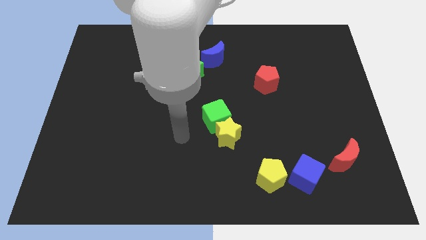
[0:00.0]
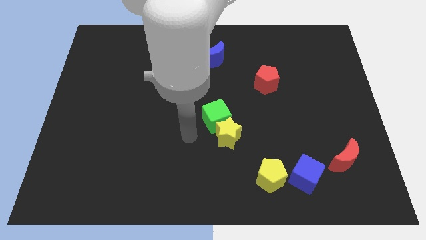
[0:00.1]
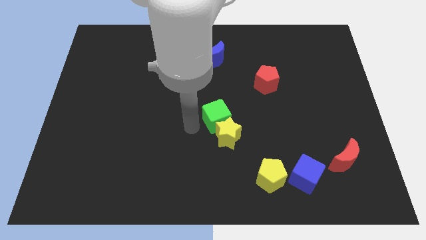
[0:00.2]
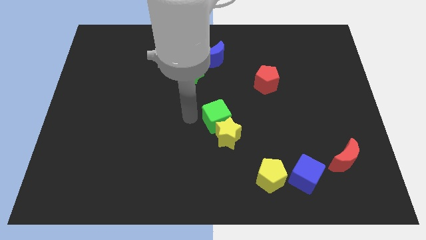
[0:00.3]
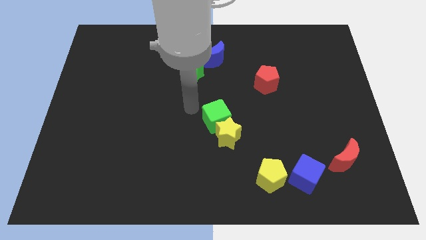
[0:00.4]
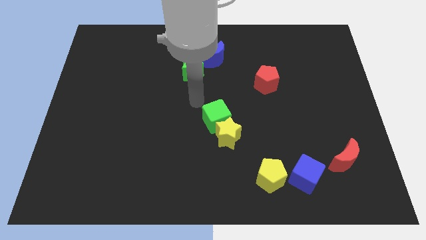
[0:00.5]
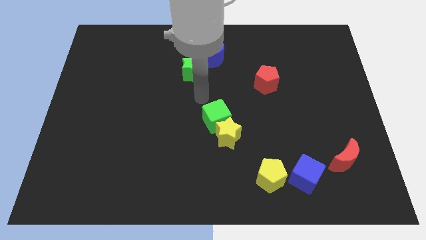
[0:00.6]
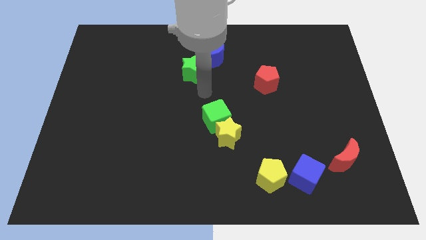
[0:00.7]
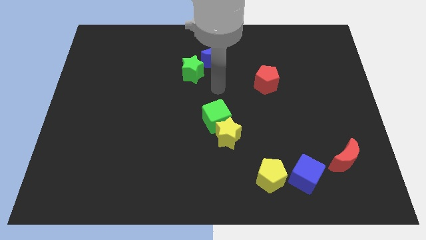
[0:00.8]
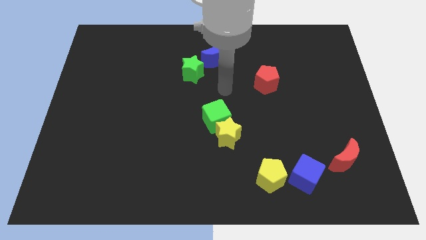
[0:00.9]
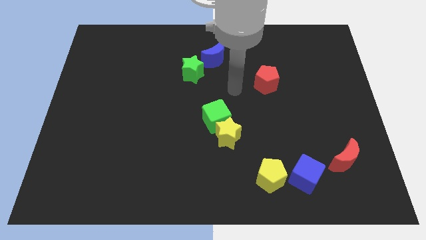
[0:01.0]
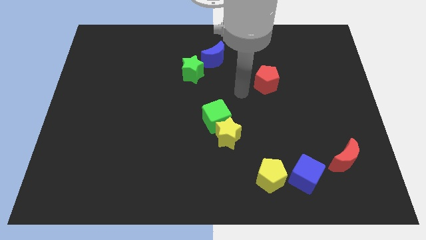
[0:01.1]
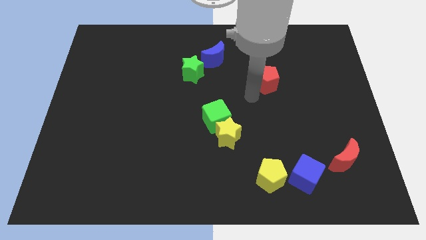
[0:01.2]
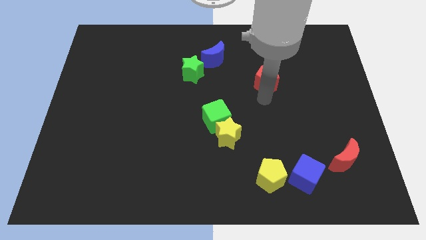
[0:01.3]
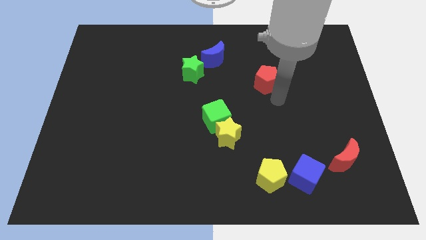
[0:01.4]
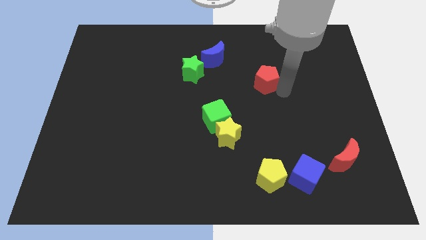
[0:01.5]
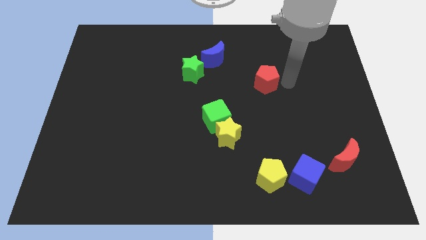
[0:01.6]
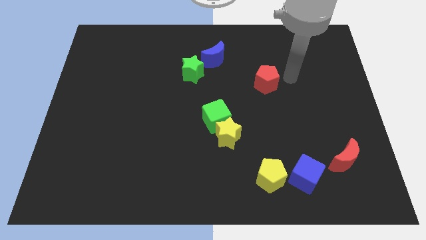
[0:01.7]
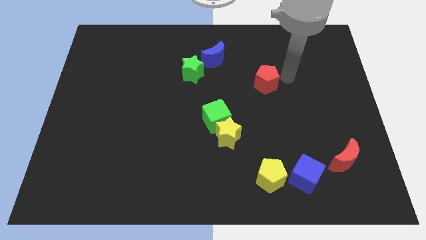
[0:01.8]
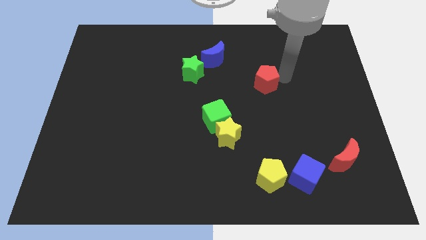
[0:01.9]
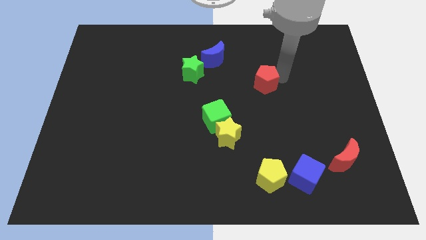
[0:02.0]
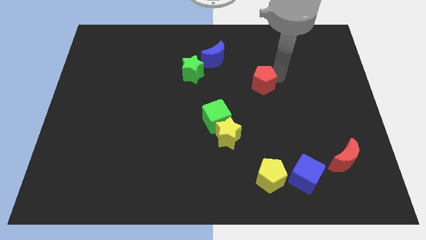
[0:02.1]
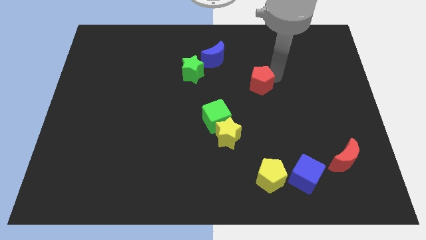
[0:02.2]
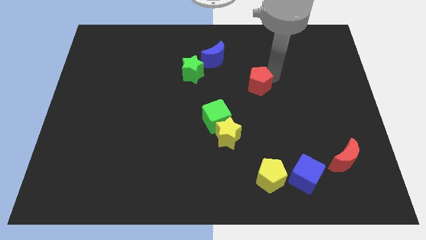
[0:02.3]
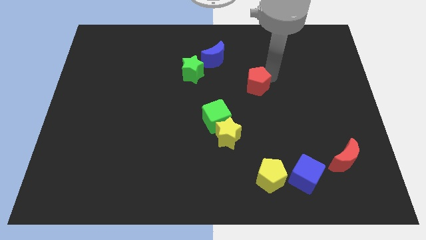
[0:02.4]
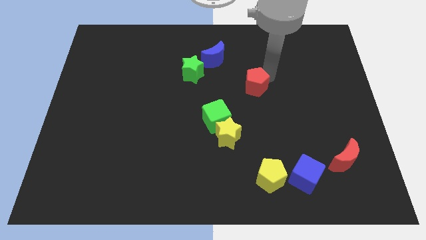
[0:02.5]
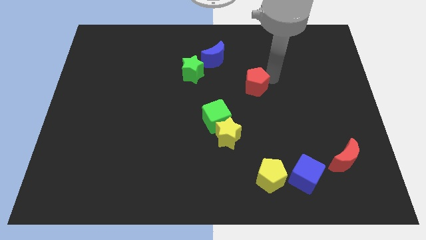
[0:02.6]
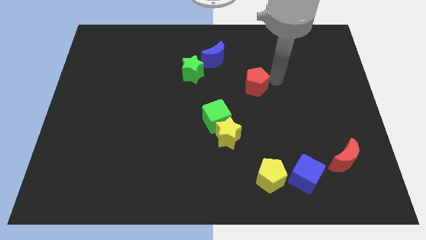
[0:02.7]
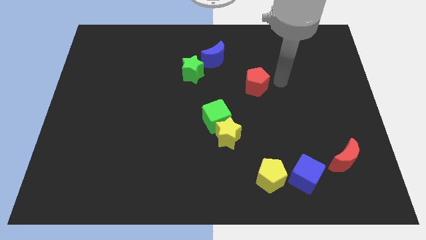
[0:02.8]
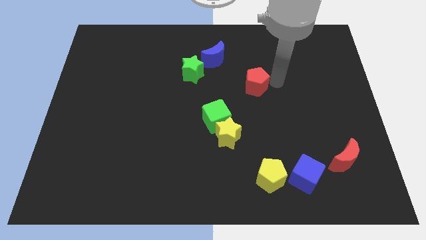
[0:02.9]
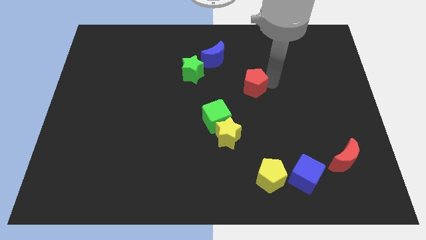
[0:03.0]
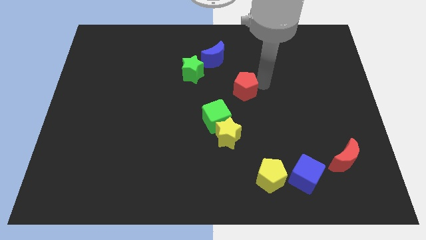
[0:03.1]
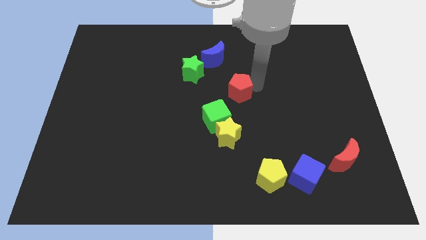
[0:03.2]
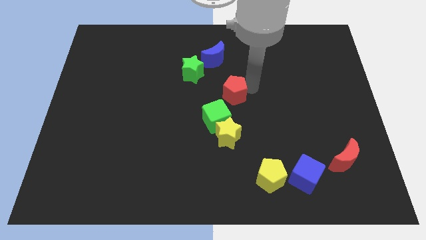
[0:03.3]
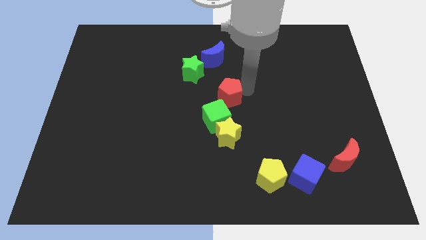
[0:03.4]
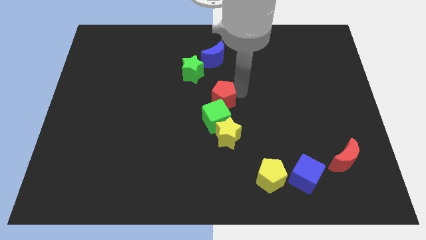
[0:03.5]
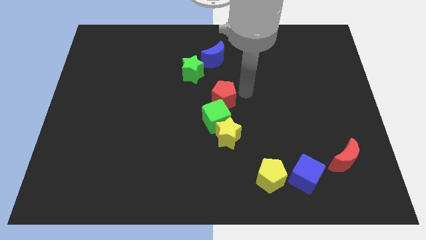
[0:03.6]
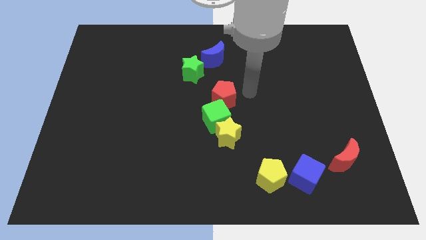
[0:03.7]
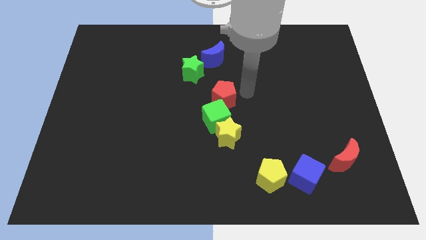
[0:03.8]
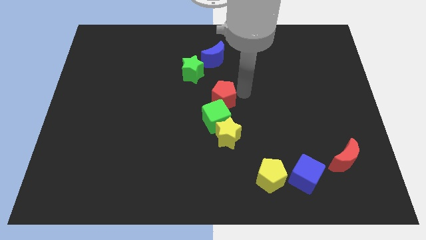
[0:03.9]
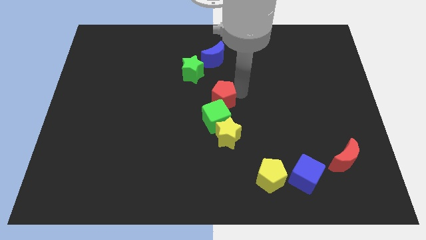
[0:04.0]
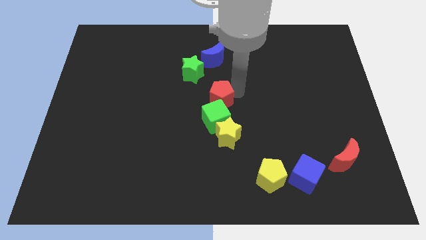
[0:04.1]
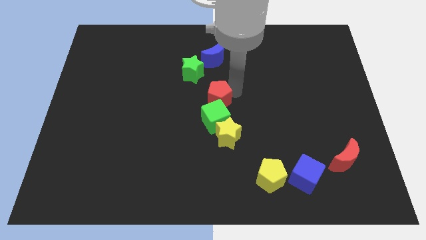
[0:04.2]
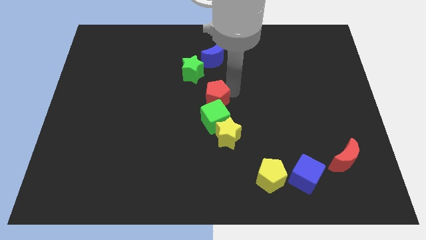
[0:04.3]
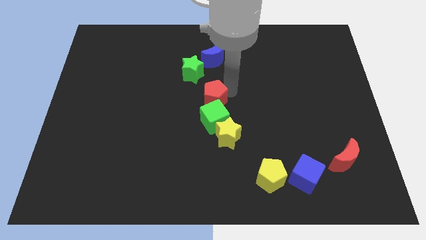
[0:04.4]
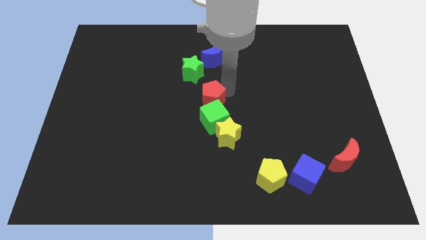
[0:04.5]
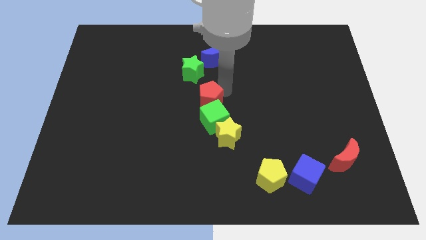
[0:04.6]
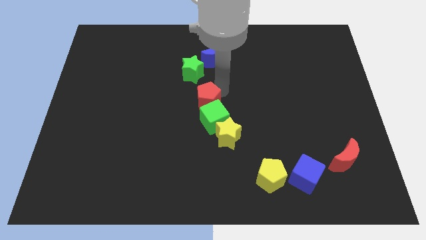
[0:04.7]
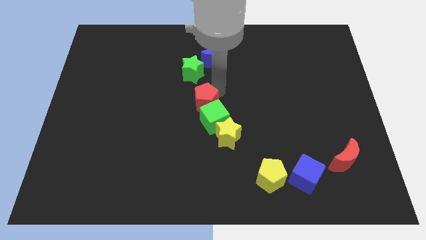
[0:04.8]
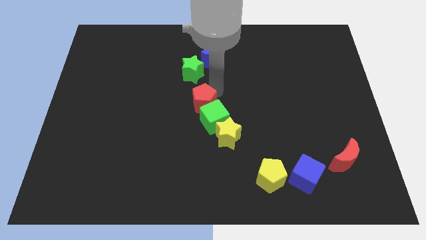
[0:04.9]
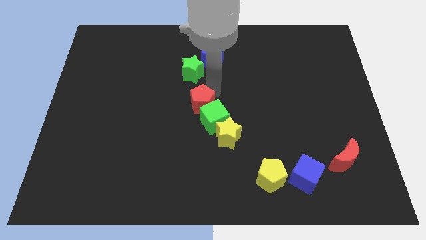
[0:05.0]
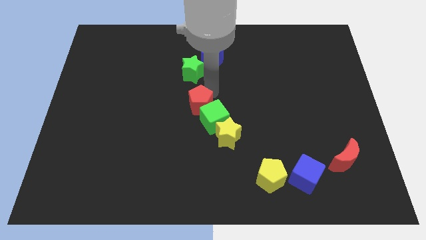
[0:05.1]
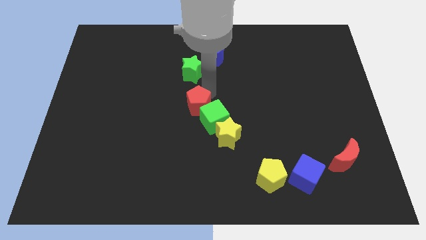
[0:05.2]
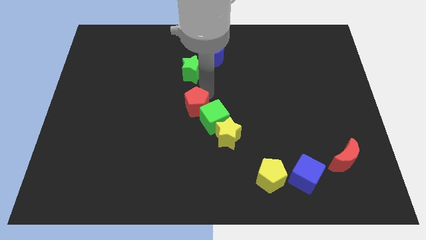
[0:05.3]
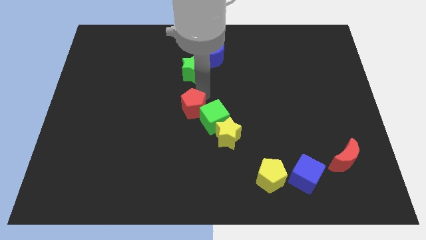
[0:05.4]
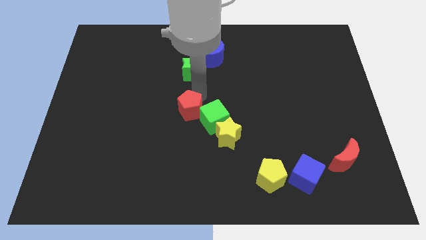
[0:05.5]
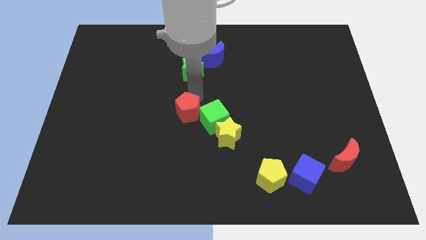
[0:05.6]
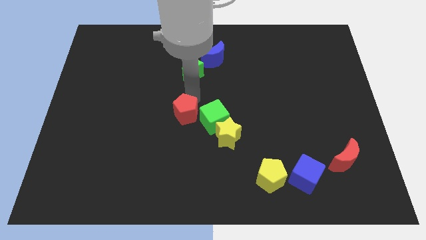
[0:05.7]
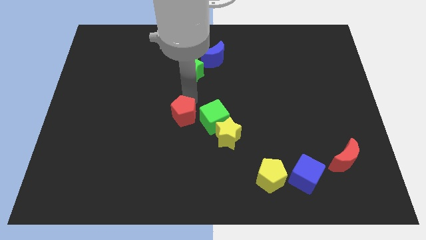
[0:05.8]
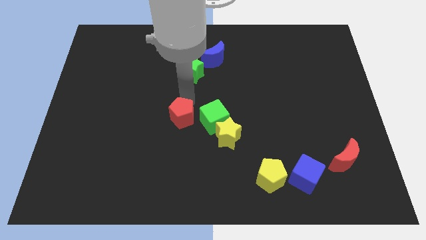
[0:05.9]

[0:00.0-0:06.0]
push the red pentagon diagonally downwards and to the left

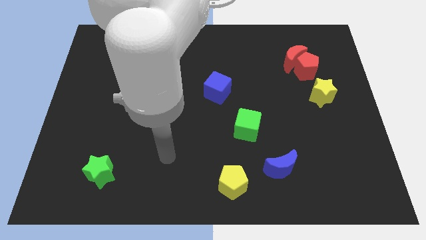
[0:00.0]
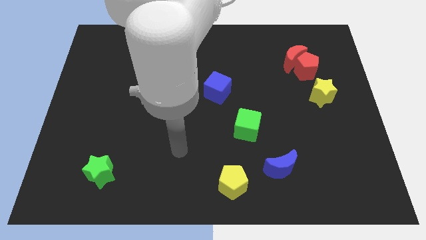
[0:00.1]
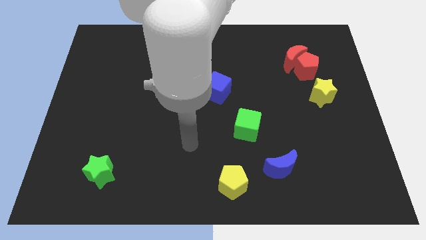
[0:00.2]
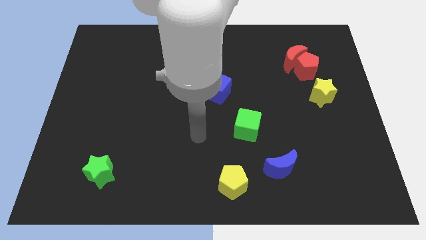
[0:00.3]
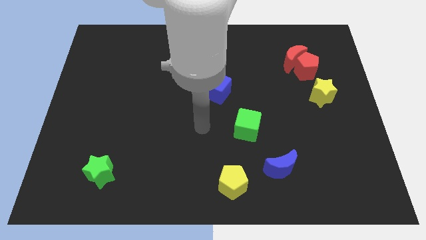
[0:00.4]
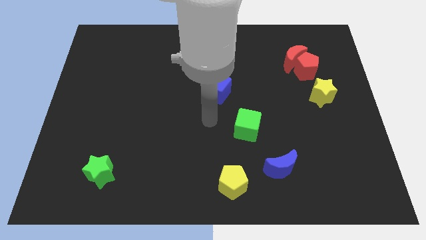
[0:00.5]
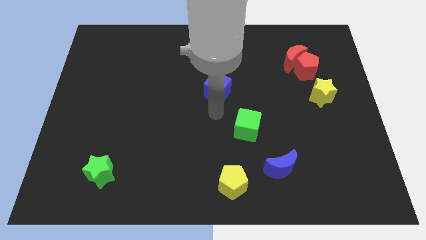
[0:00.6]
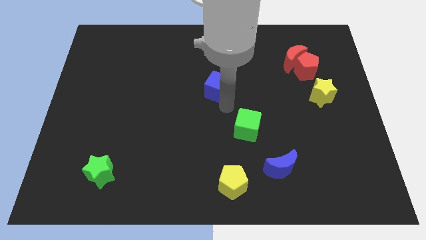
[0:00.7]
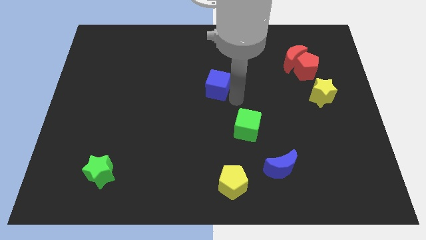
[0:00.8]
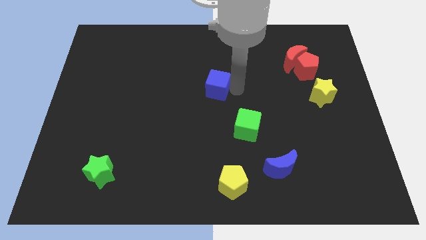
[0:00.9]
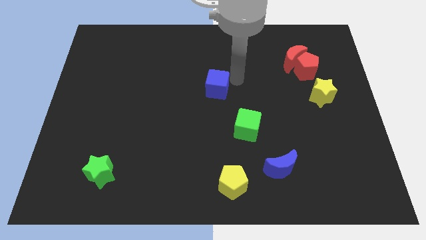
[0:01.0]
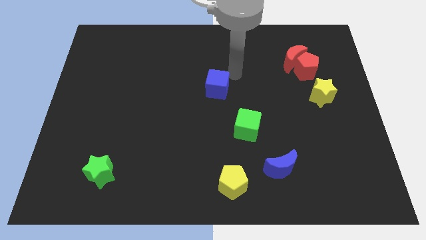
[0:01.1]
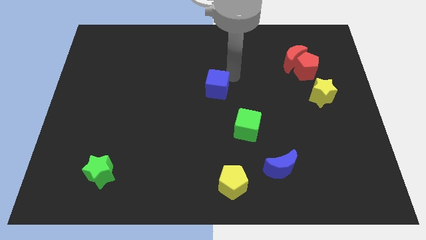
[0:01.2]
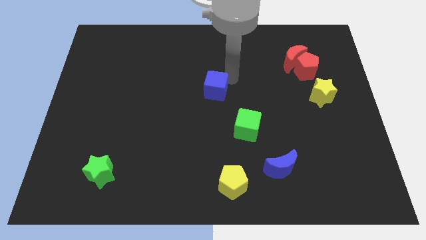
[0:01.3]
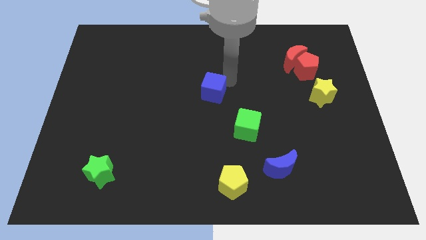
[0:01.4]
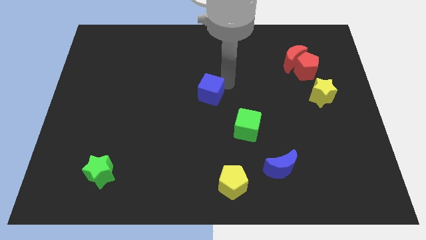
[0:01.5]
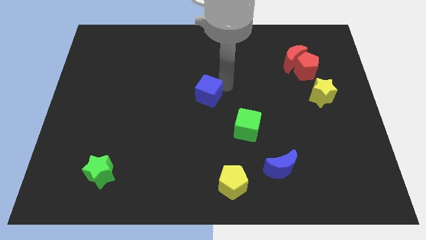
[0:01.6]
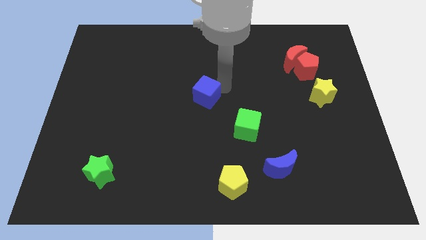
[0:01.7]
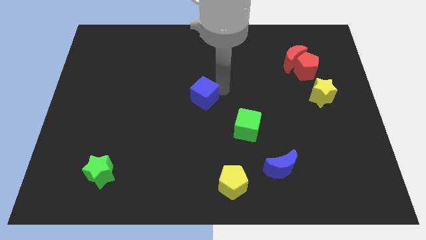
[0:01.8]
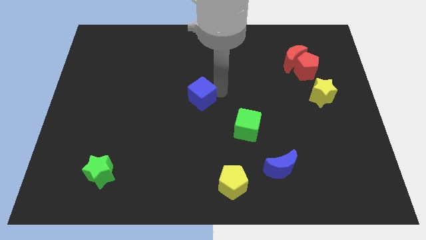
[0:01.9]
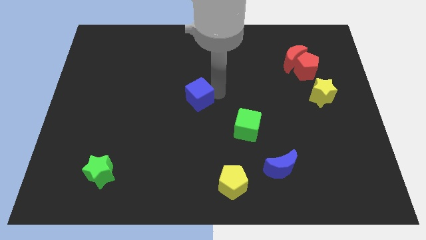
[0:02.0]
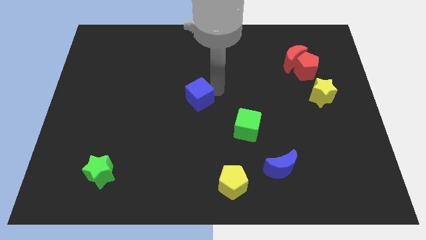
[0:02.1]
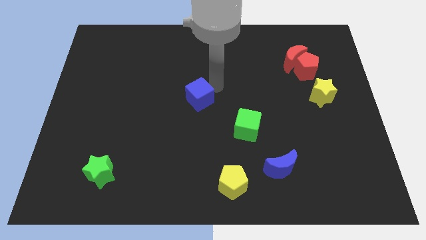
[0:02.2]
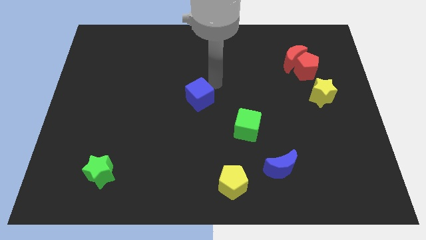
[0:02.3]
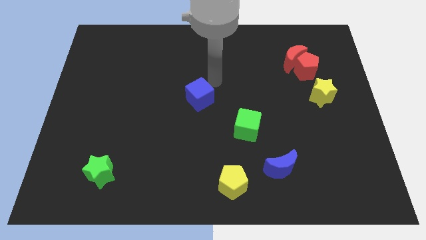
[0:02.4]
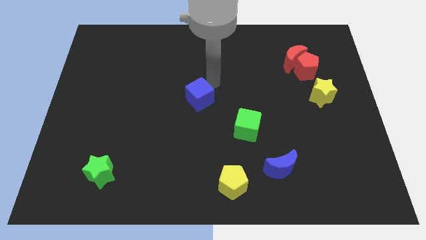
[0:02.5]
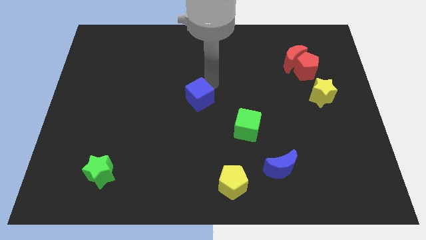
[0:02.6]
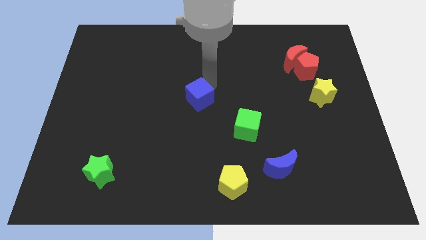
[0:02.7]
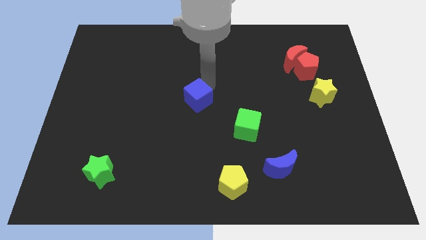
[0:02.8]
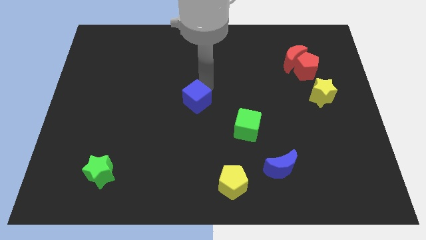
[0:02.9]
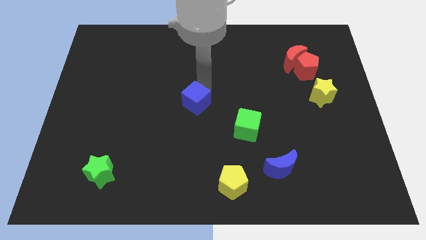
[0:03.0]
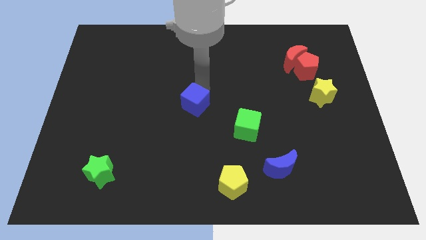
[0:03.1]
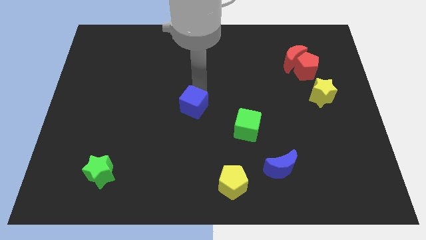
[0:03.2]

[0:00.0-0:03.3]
move the blue cube slightly downwards and then to the left
